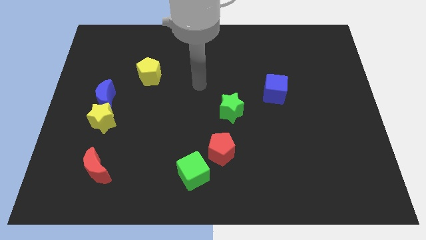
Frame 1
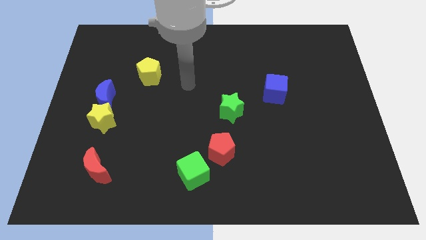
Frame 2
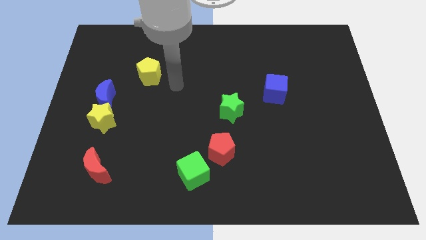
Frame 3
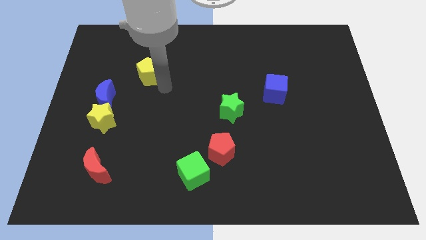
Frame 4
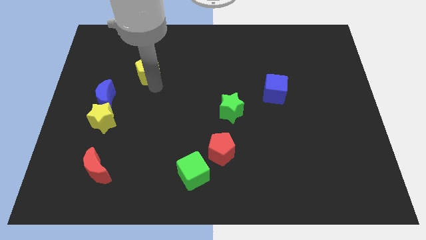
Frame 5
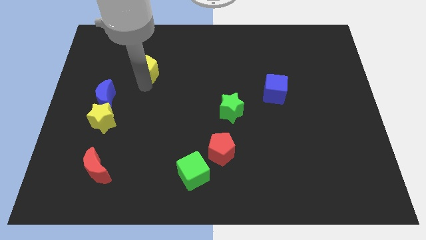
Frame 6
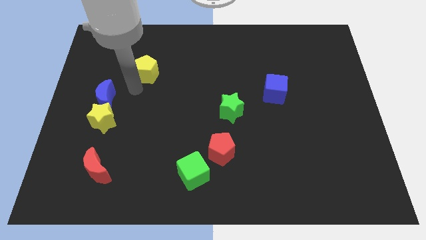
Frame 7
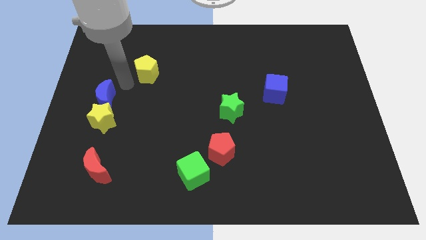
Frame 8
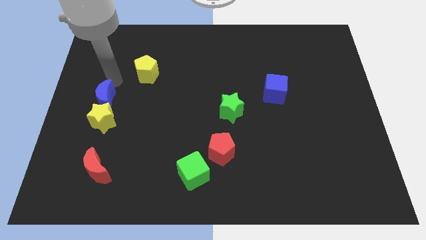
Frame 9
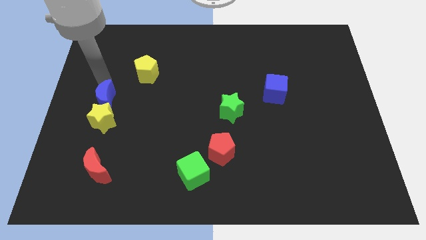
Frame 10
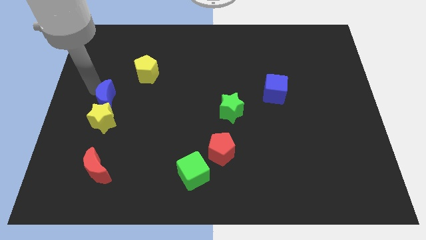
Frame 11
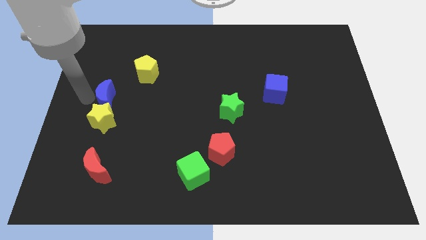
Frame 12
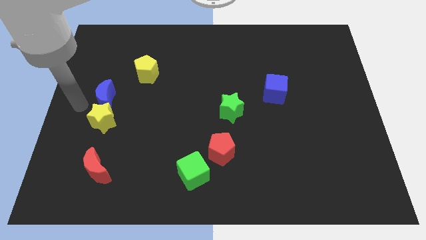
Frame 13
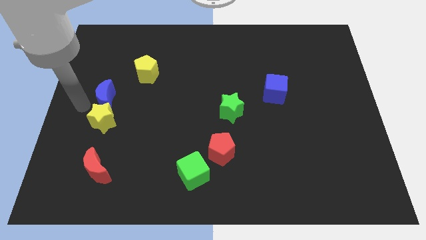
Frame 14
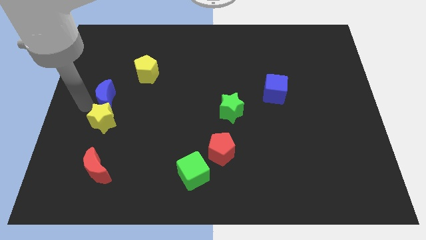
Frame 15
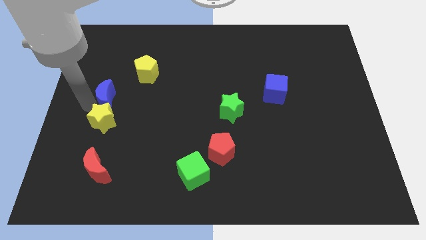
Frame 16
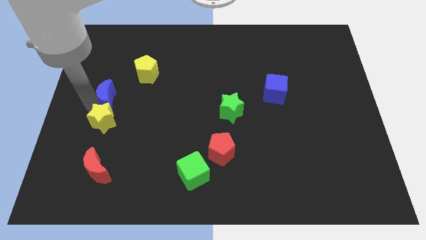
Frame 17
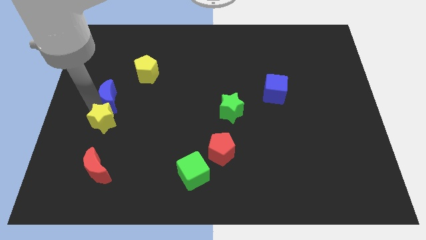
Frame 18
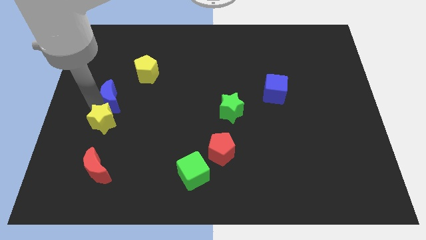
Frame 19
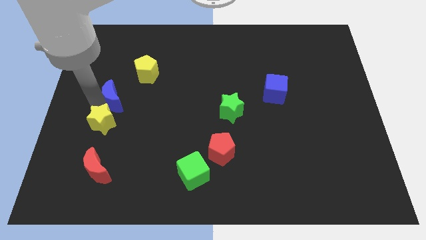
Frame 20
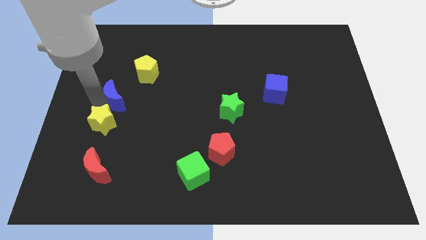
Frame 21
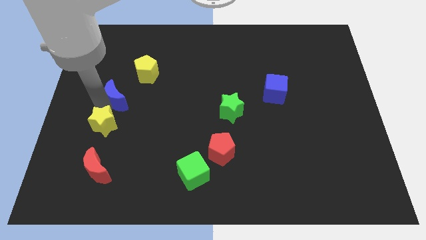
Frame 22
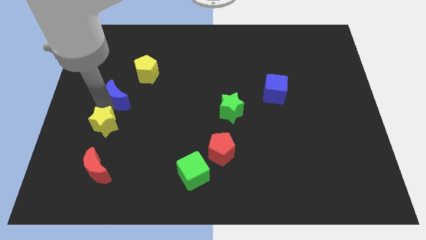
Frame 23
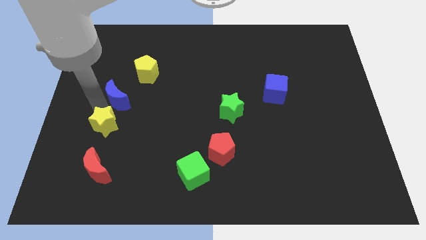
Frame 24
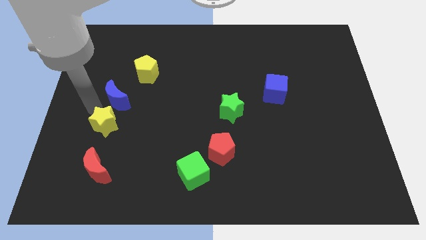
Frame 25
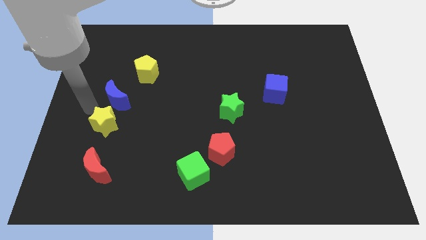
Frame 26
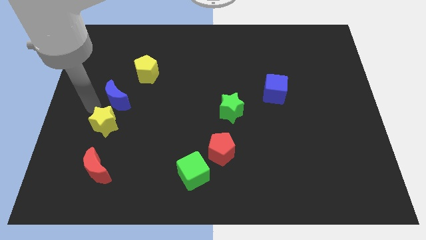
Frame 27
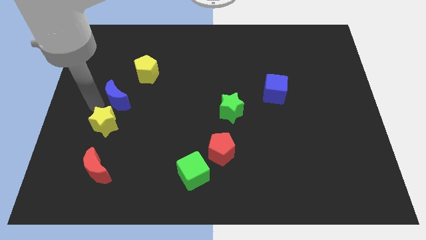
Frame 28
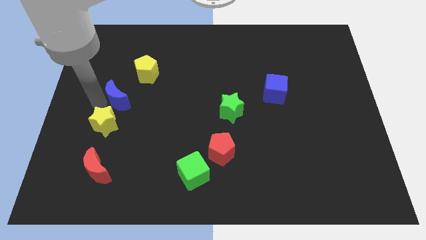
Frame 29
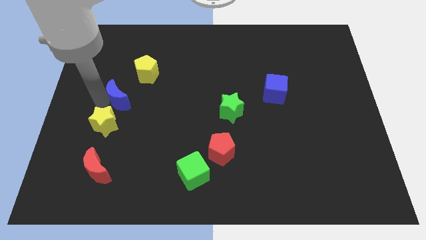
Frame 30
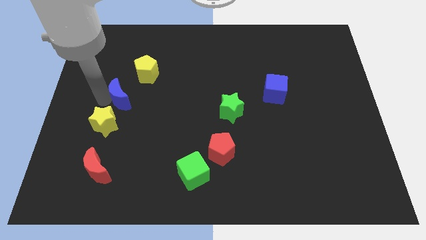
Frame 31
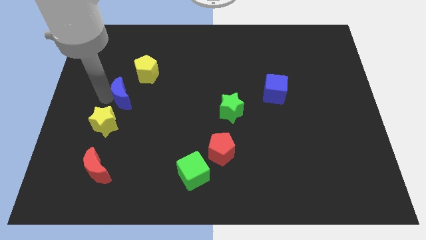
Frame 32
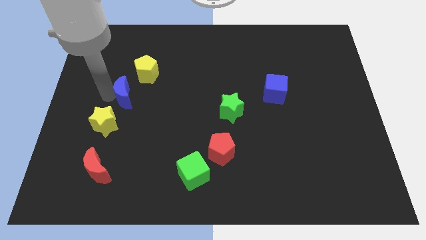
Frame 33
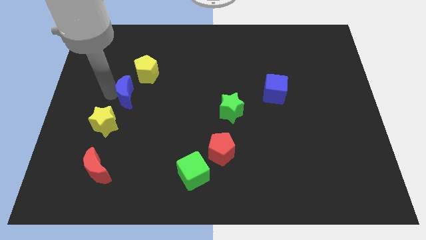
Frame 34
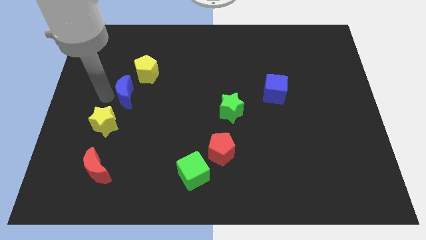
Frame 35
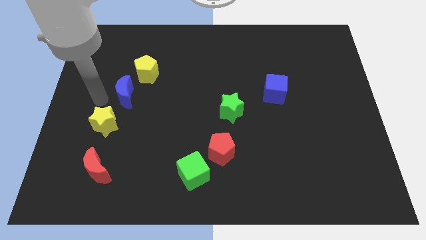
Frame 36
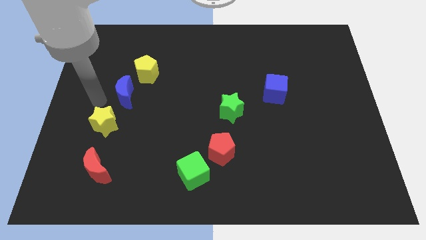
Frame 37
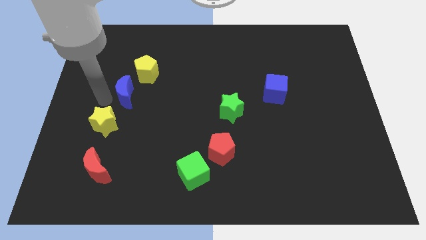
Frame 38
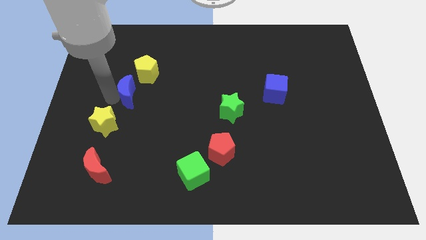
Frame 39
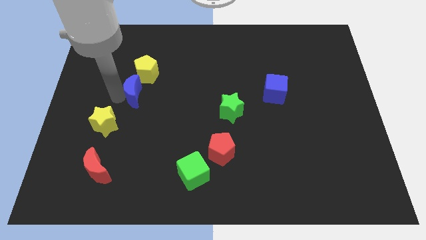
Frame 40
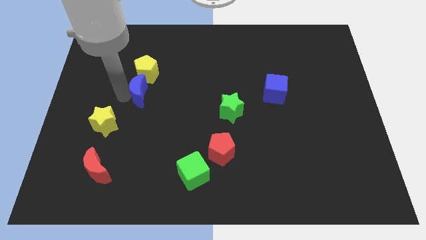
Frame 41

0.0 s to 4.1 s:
move the blue moon a little right

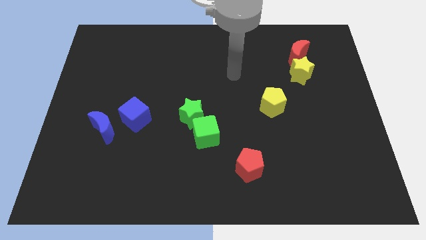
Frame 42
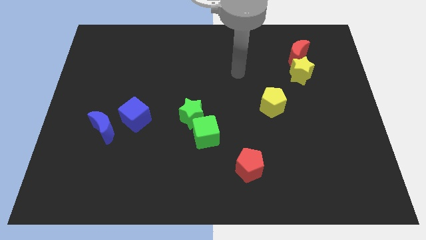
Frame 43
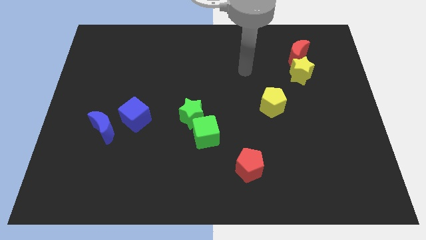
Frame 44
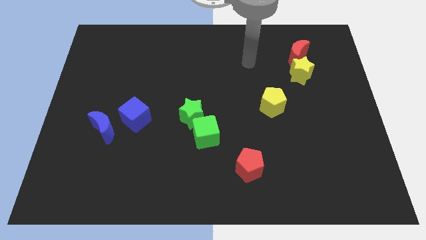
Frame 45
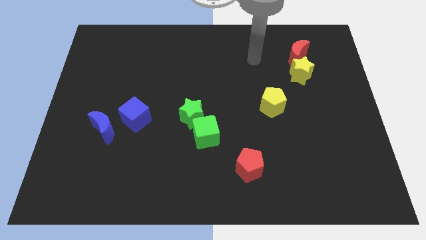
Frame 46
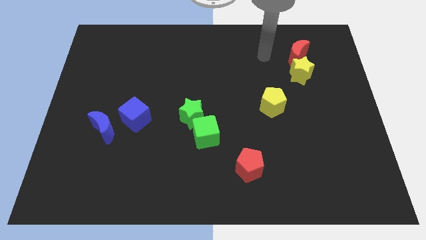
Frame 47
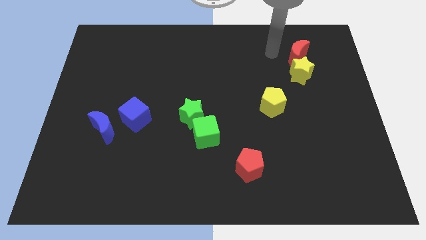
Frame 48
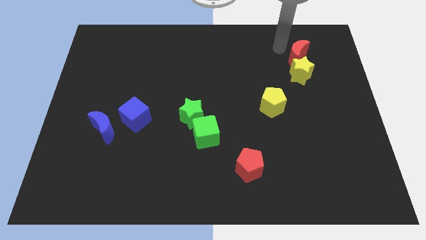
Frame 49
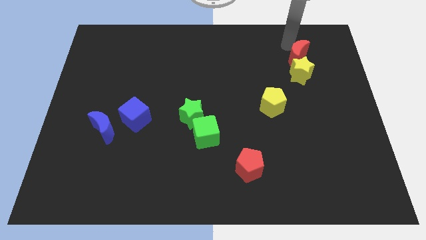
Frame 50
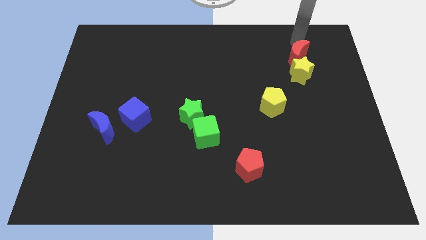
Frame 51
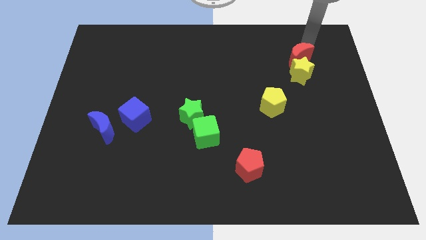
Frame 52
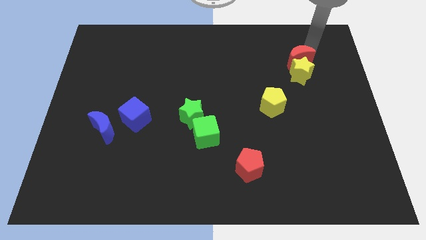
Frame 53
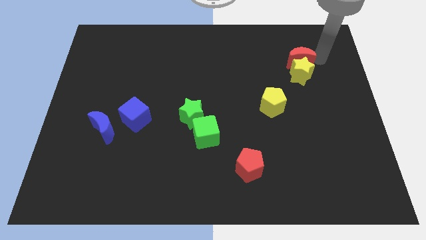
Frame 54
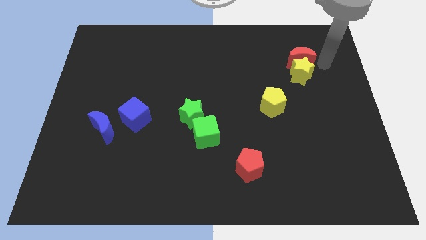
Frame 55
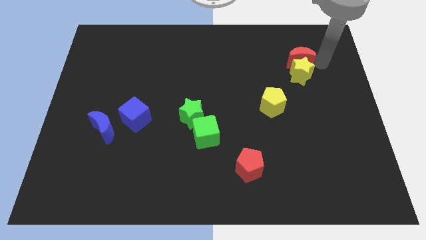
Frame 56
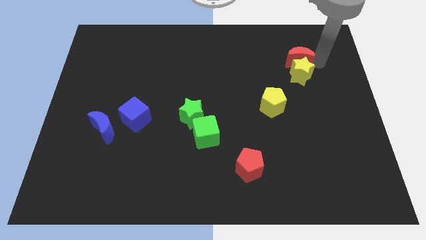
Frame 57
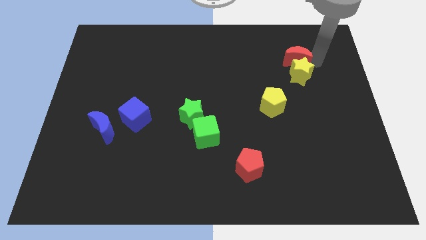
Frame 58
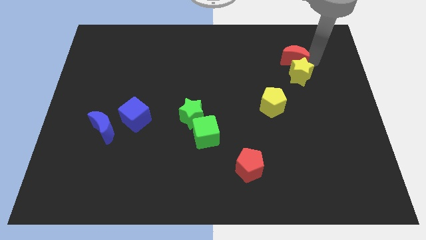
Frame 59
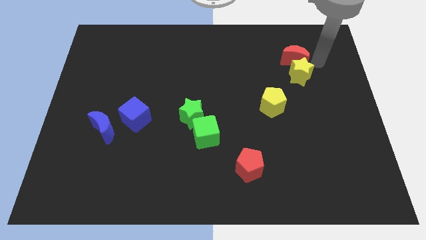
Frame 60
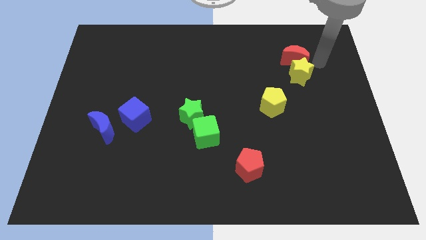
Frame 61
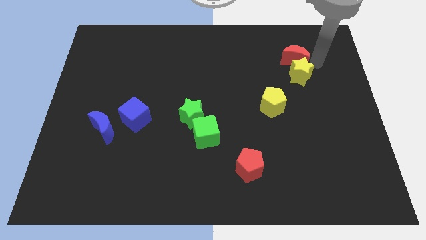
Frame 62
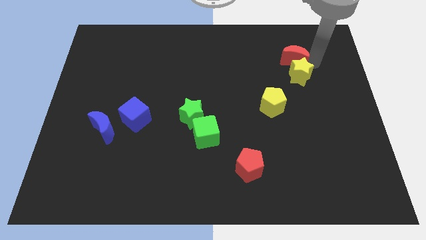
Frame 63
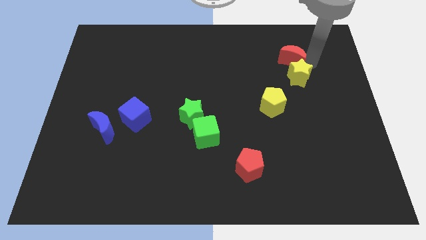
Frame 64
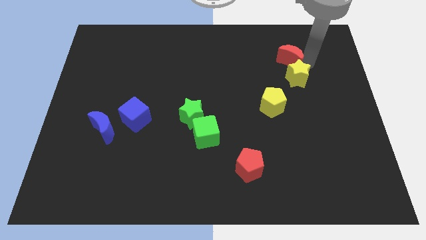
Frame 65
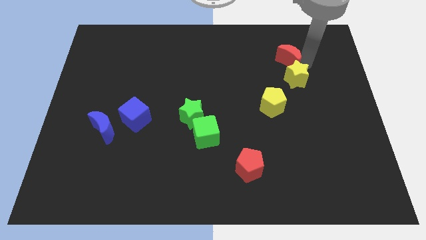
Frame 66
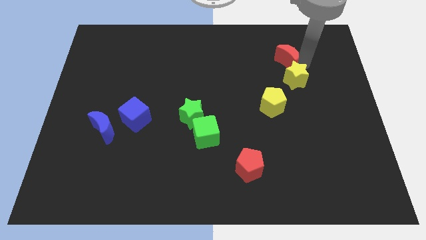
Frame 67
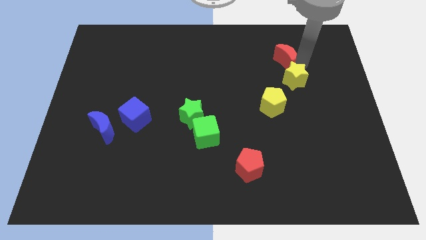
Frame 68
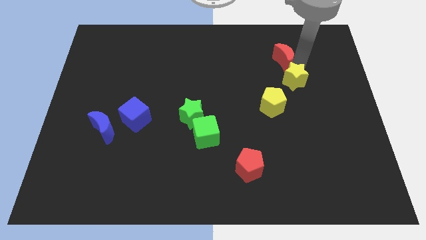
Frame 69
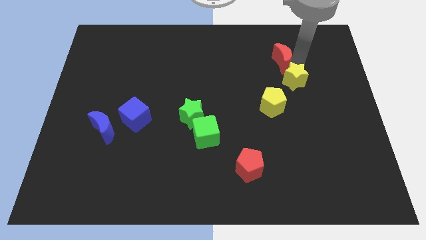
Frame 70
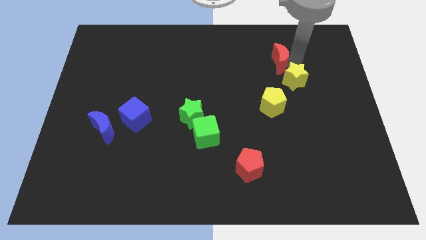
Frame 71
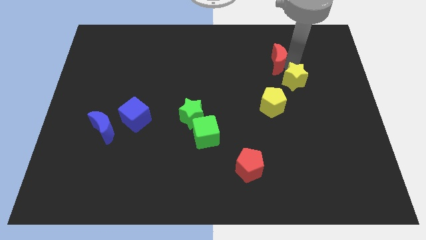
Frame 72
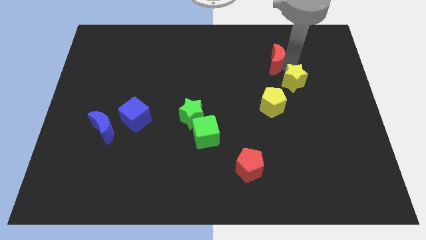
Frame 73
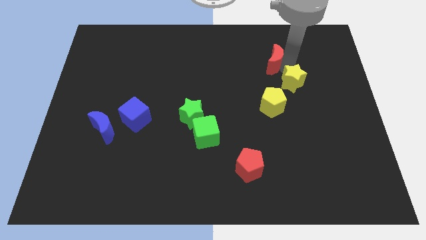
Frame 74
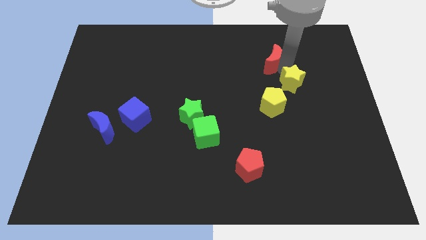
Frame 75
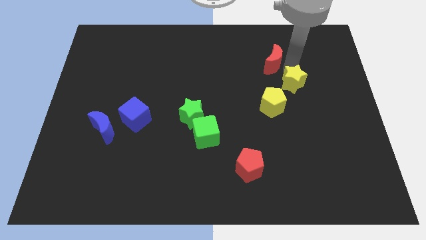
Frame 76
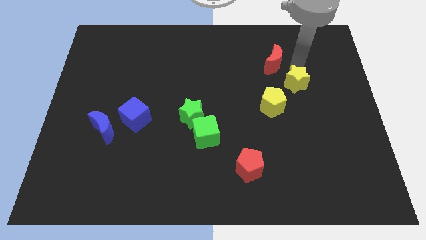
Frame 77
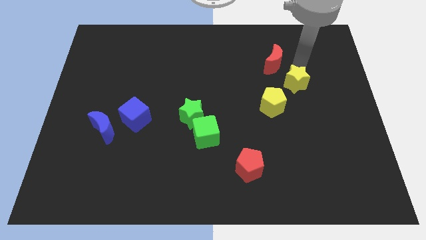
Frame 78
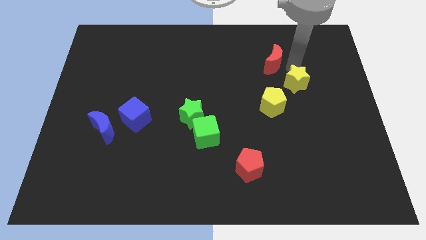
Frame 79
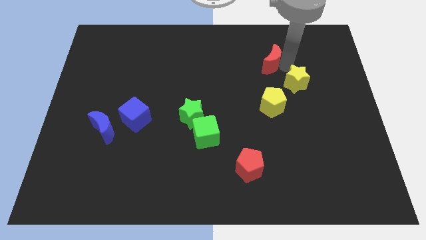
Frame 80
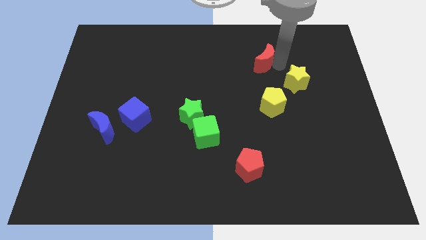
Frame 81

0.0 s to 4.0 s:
push the red moon a bit left

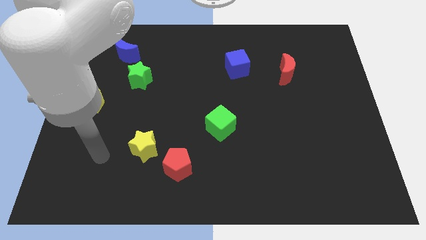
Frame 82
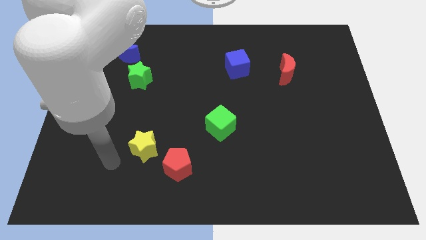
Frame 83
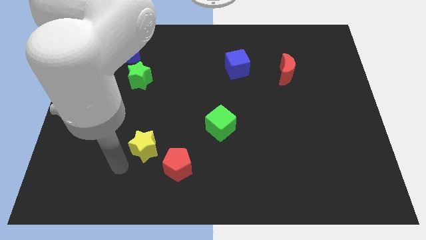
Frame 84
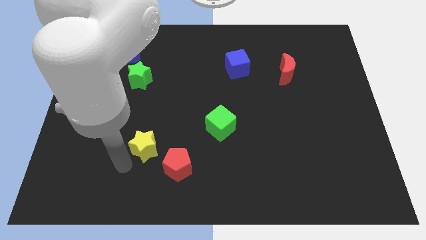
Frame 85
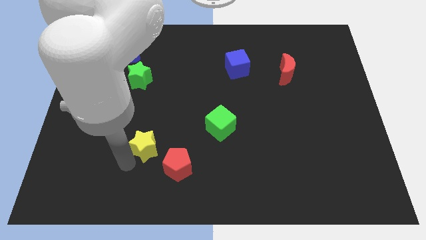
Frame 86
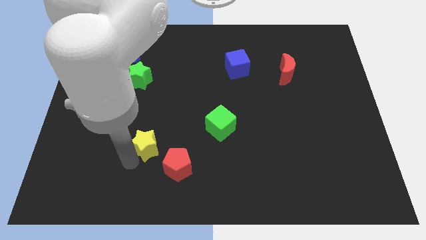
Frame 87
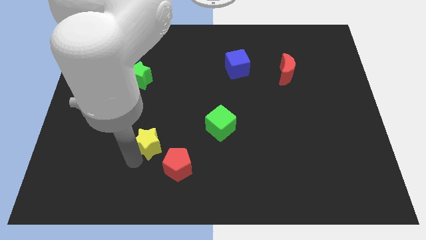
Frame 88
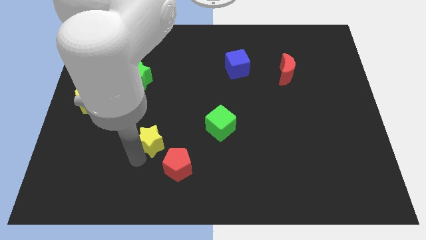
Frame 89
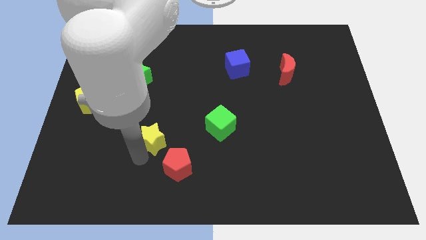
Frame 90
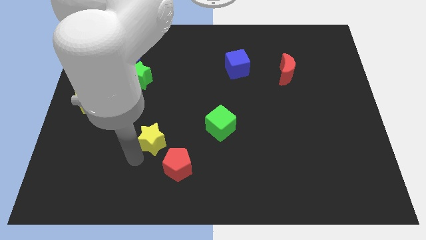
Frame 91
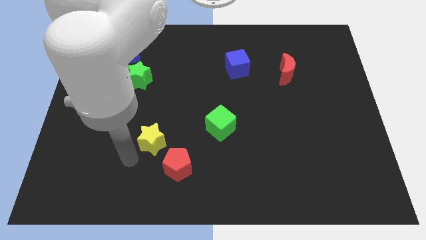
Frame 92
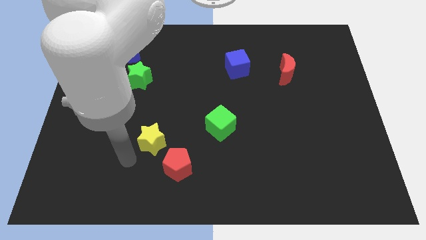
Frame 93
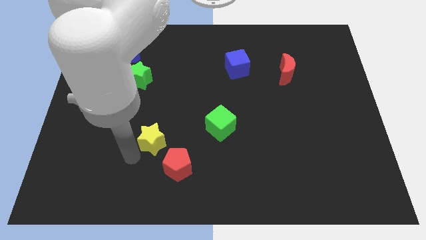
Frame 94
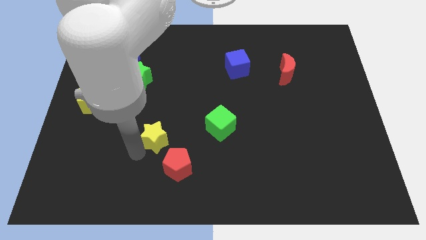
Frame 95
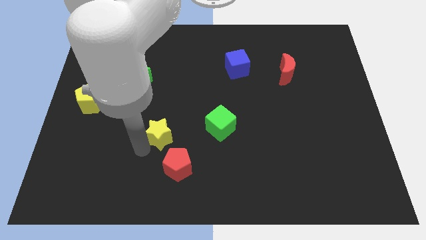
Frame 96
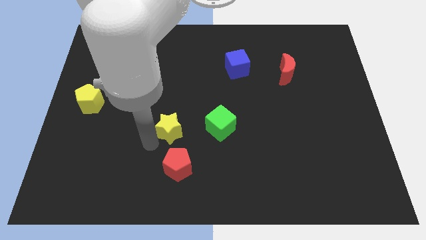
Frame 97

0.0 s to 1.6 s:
slide the yellow star somewhat up and then to the right
